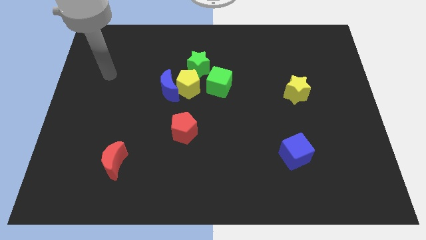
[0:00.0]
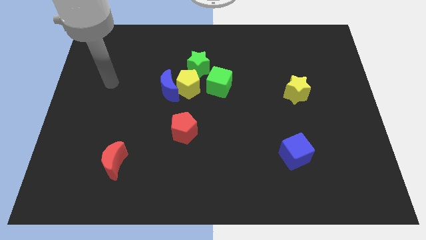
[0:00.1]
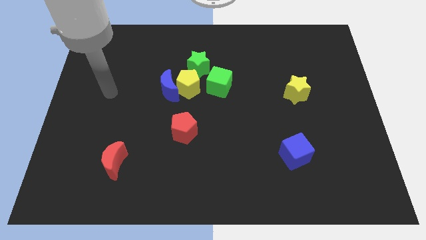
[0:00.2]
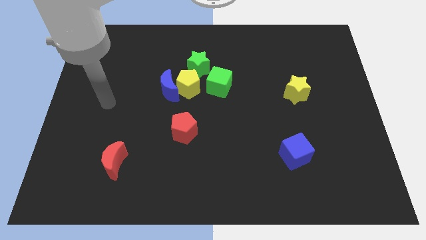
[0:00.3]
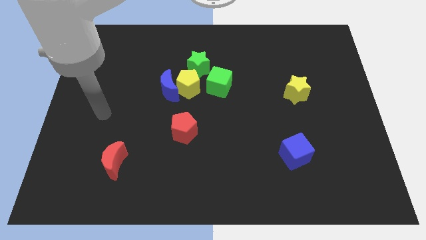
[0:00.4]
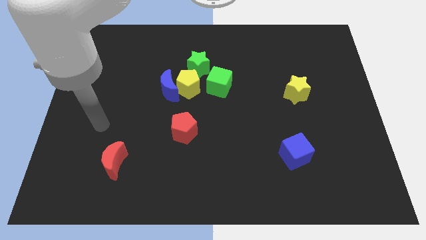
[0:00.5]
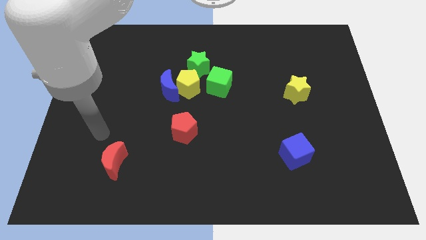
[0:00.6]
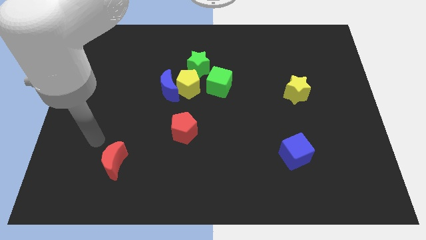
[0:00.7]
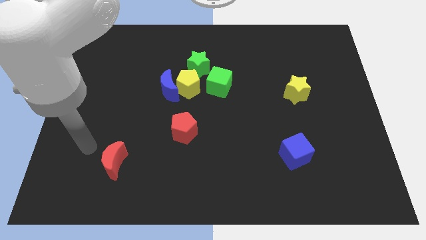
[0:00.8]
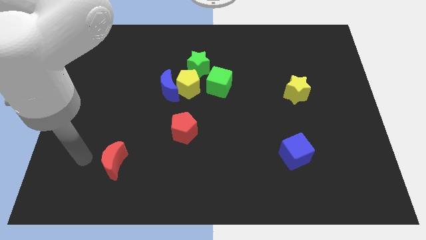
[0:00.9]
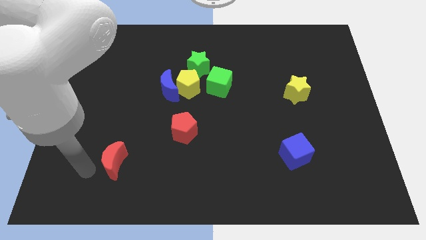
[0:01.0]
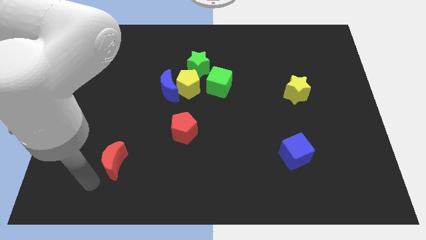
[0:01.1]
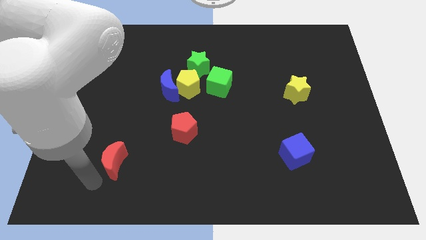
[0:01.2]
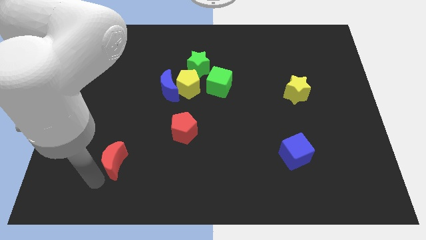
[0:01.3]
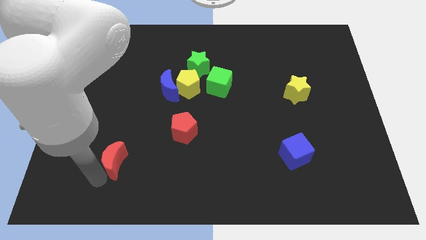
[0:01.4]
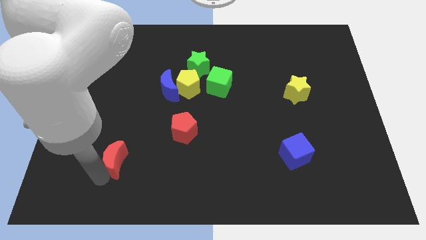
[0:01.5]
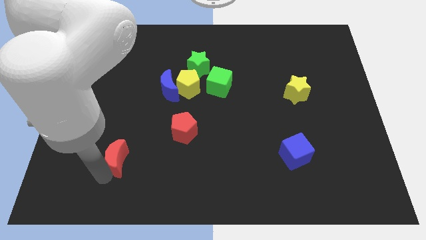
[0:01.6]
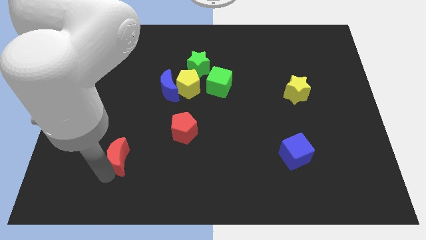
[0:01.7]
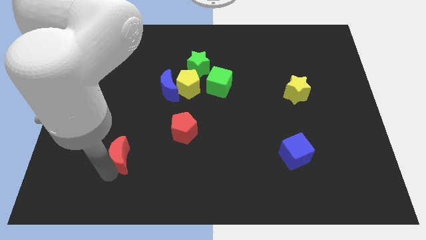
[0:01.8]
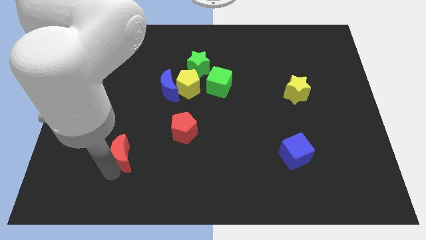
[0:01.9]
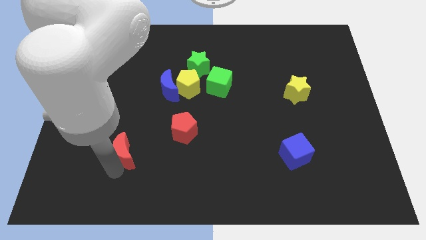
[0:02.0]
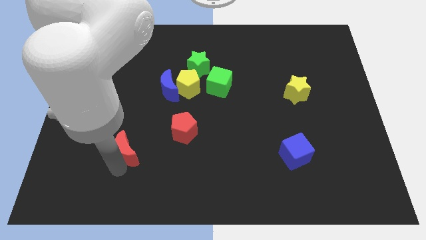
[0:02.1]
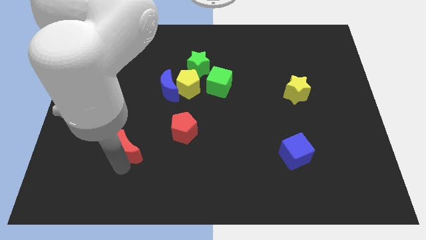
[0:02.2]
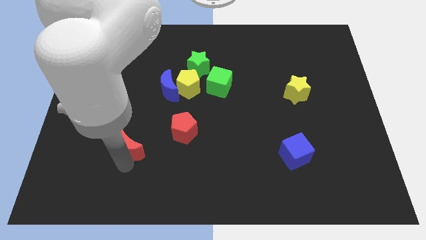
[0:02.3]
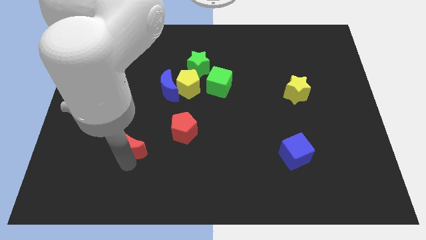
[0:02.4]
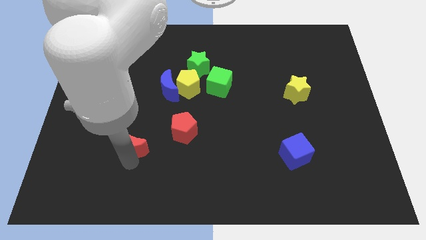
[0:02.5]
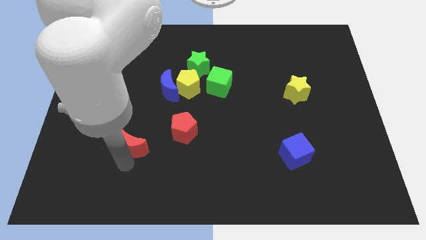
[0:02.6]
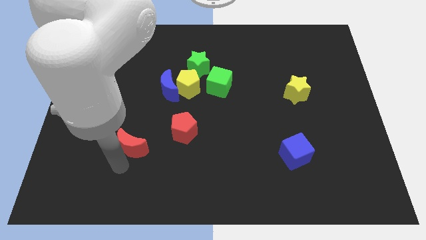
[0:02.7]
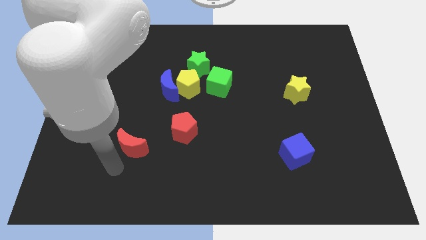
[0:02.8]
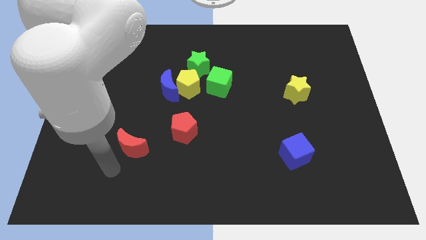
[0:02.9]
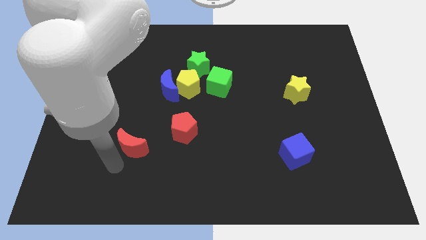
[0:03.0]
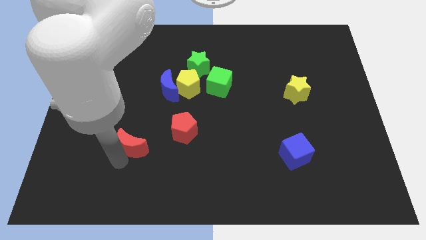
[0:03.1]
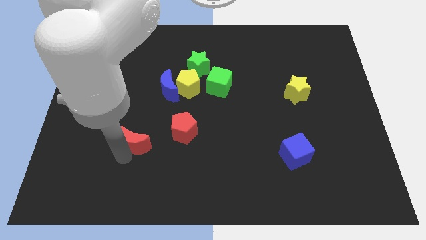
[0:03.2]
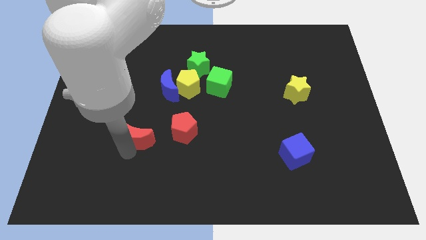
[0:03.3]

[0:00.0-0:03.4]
push the red moon upwards and then to the right somewhat

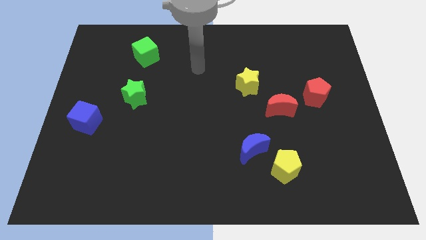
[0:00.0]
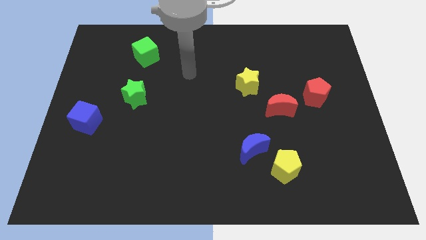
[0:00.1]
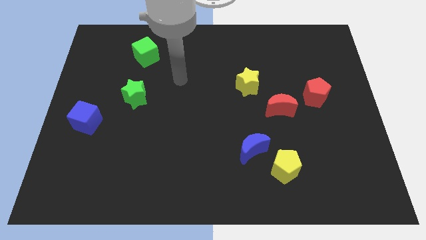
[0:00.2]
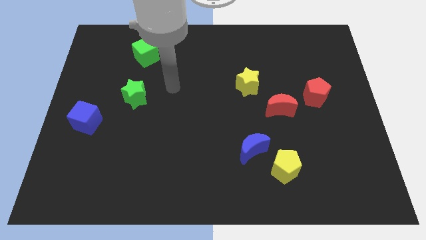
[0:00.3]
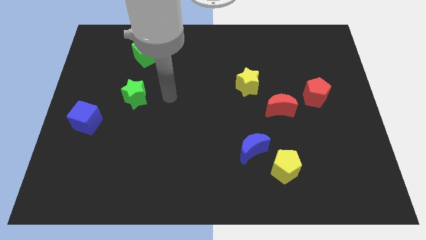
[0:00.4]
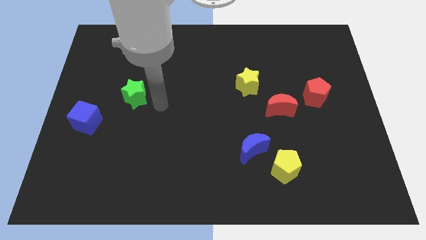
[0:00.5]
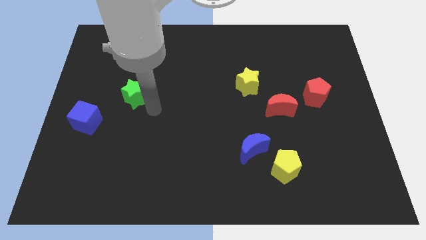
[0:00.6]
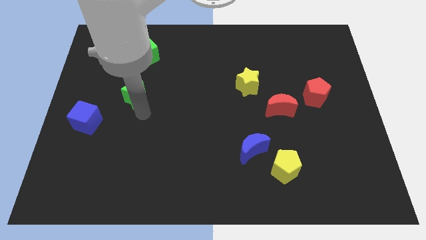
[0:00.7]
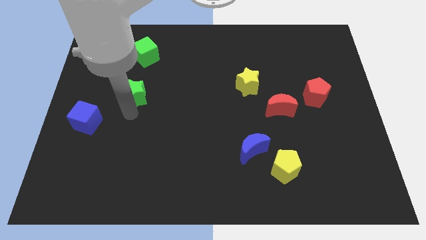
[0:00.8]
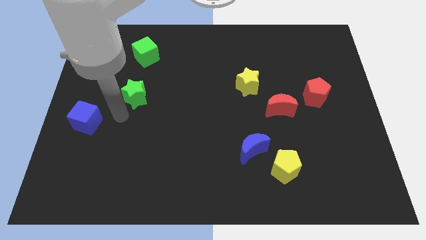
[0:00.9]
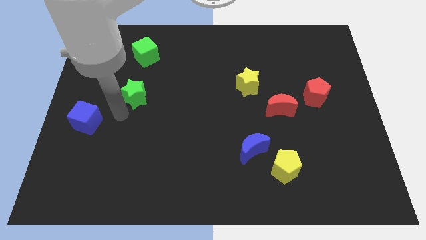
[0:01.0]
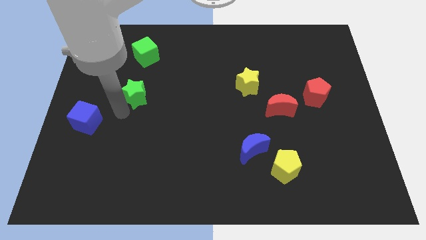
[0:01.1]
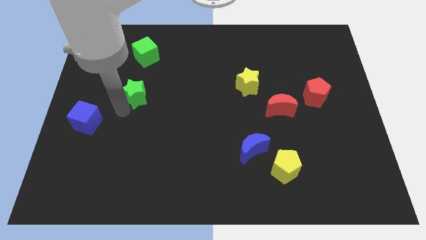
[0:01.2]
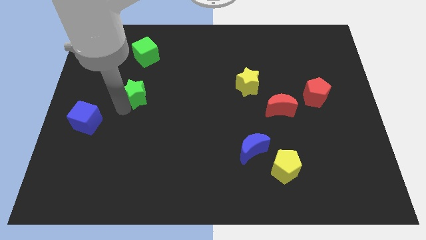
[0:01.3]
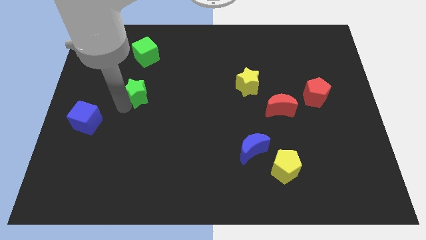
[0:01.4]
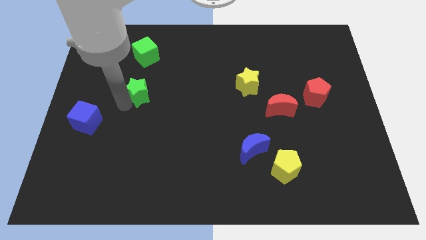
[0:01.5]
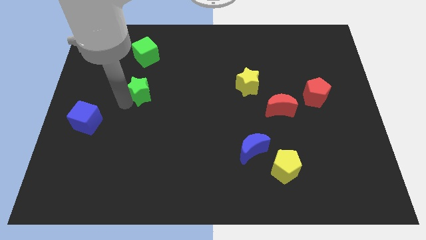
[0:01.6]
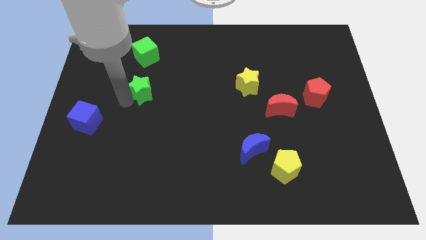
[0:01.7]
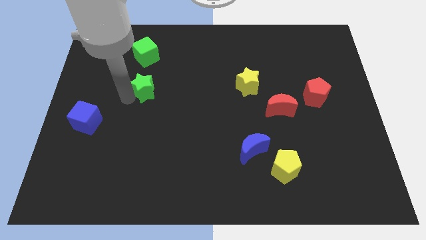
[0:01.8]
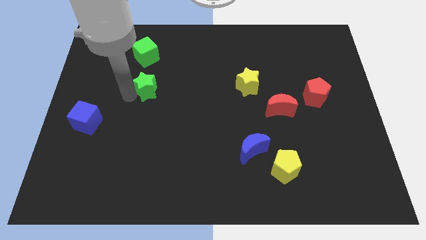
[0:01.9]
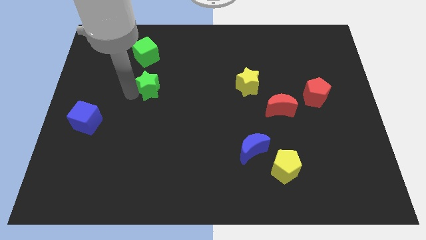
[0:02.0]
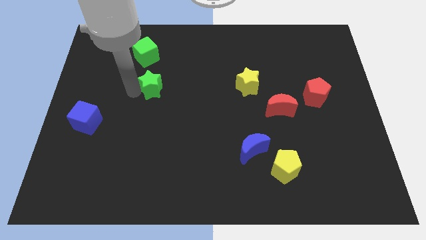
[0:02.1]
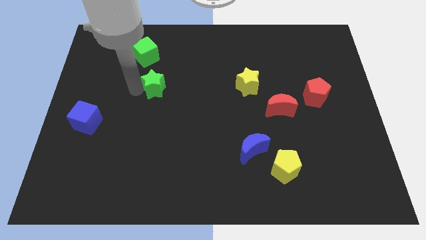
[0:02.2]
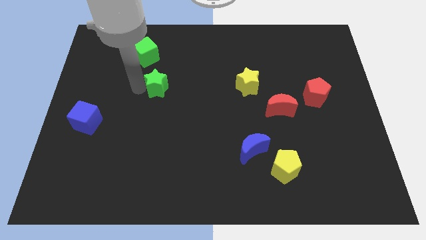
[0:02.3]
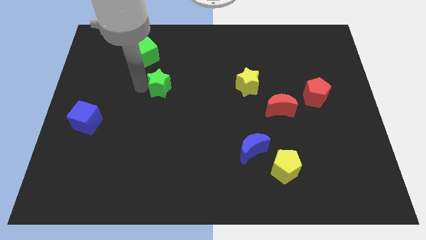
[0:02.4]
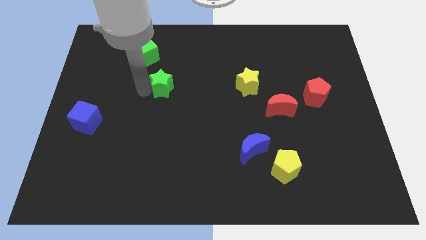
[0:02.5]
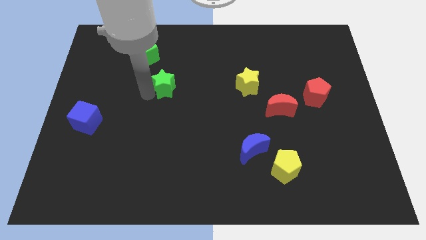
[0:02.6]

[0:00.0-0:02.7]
slide the green star a bit up and to the right diagonally

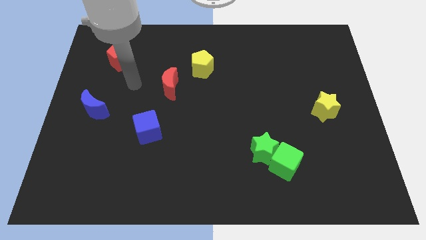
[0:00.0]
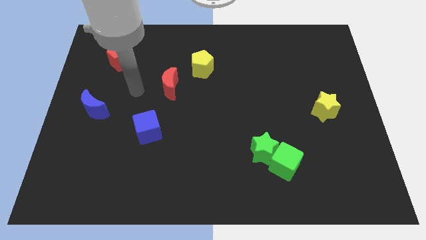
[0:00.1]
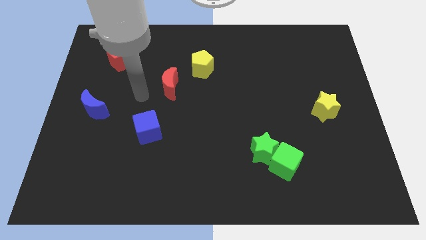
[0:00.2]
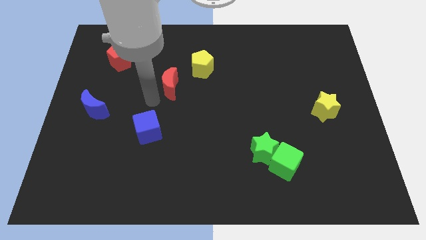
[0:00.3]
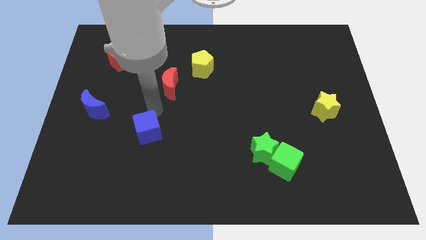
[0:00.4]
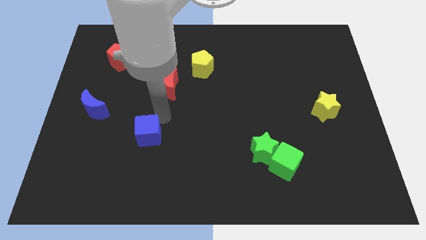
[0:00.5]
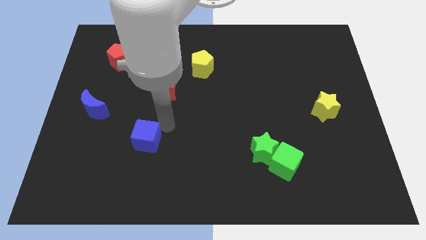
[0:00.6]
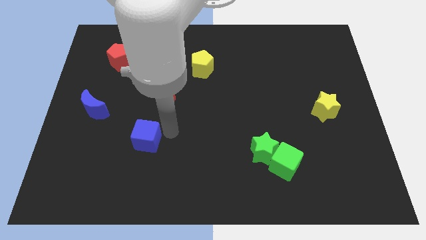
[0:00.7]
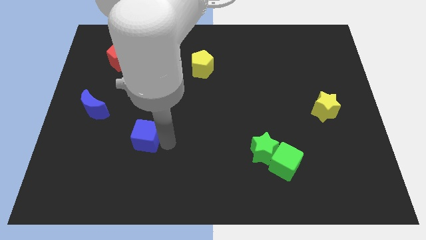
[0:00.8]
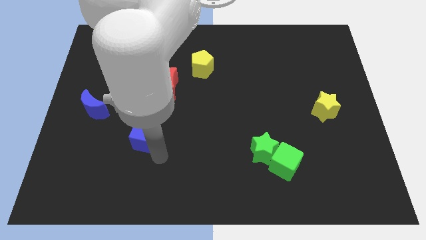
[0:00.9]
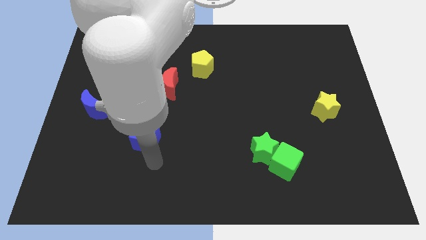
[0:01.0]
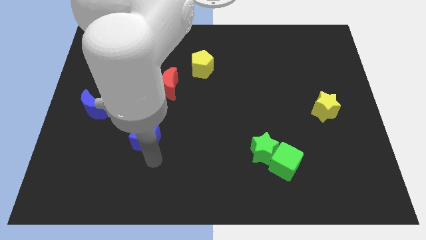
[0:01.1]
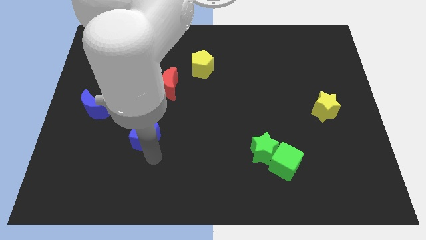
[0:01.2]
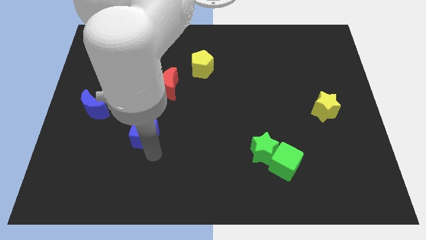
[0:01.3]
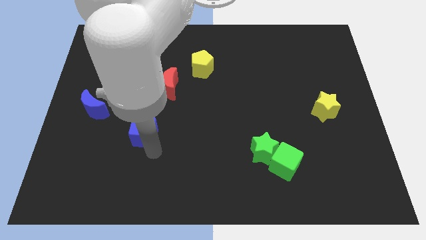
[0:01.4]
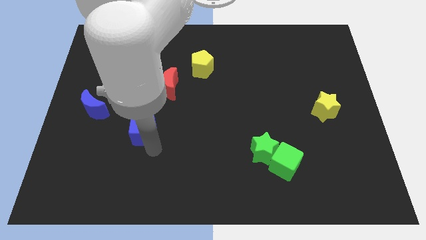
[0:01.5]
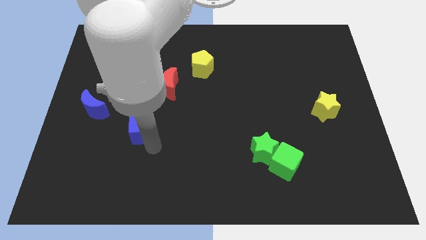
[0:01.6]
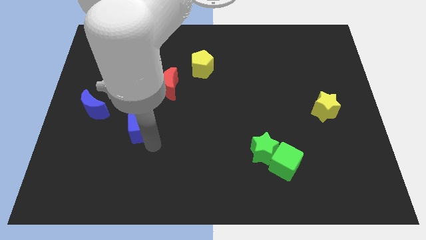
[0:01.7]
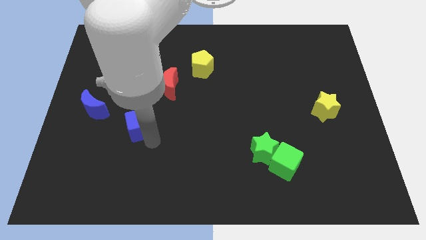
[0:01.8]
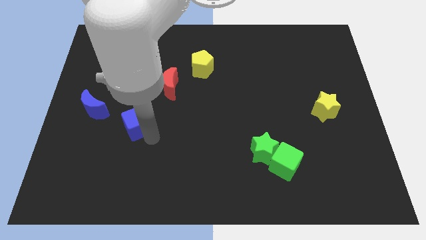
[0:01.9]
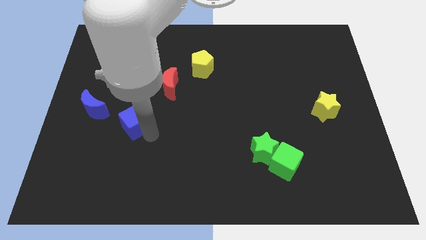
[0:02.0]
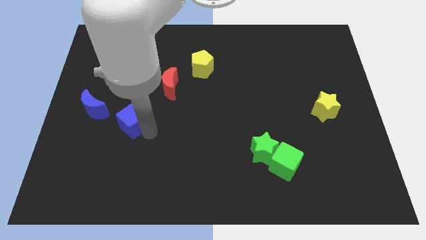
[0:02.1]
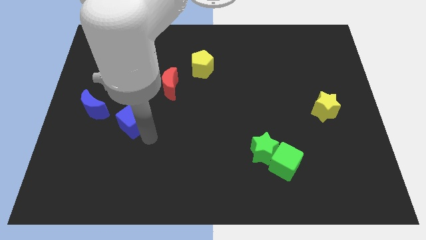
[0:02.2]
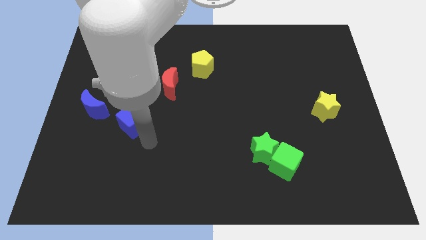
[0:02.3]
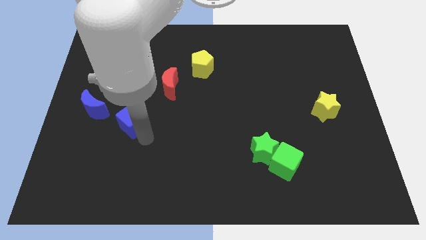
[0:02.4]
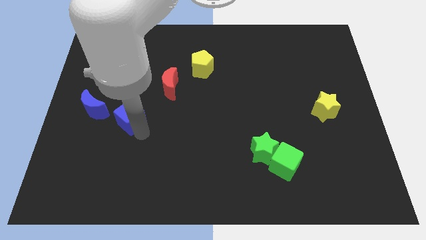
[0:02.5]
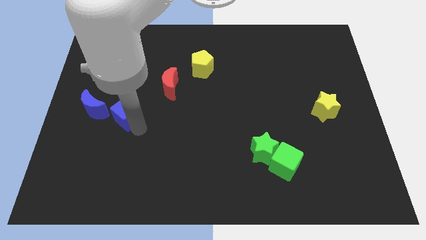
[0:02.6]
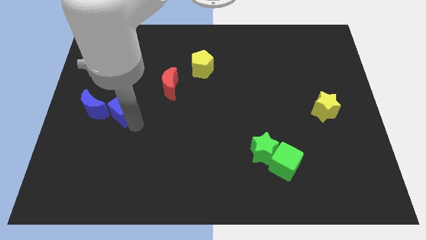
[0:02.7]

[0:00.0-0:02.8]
push the blue cube a little bit upwards and to the left
